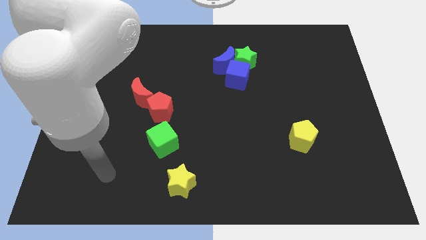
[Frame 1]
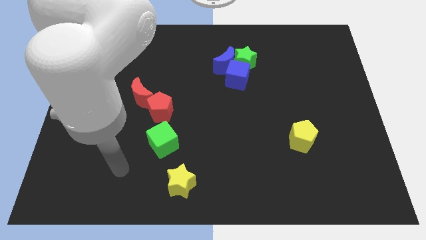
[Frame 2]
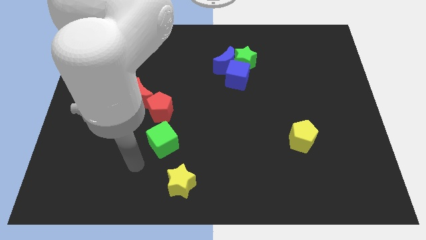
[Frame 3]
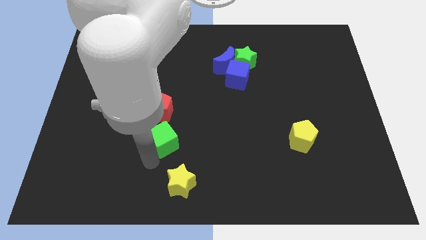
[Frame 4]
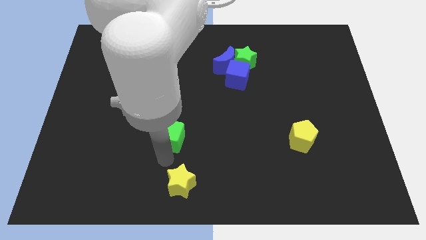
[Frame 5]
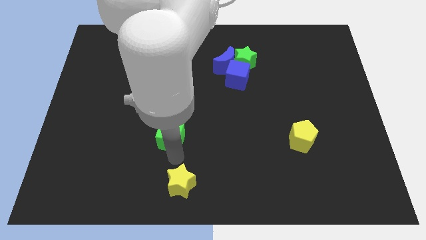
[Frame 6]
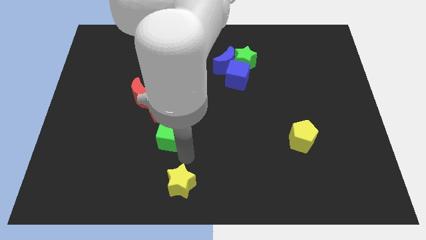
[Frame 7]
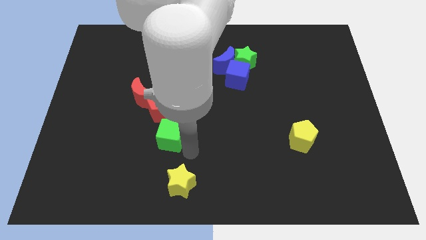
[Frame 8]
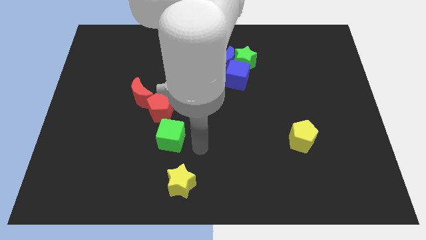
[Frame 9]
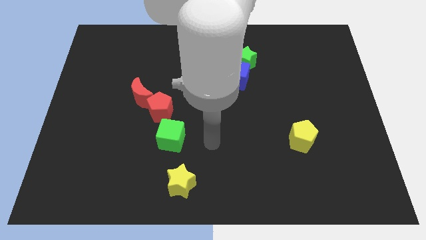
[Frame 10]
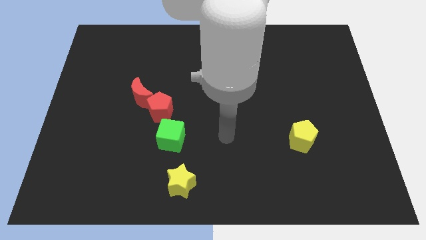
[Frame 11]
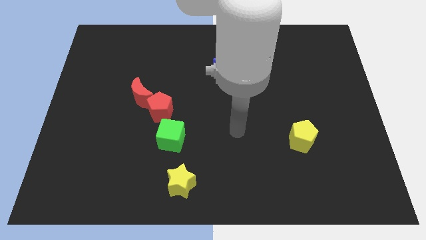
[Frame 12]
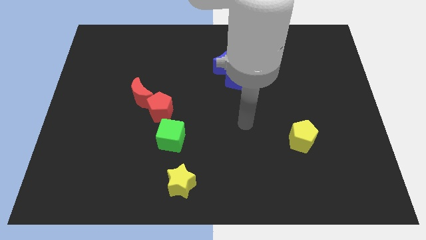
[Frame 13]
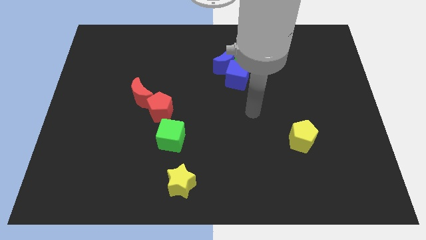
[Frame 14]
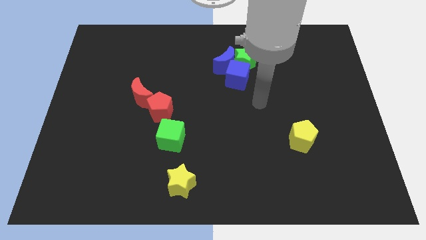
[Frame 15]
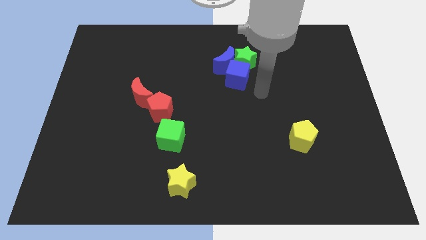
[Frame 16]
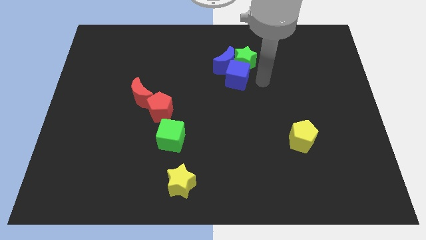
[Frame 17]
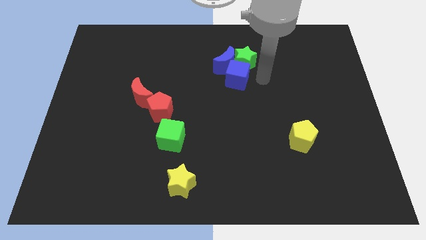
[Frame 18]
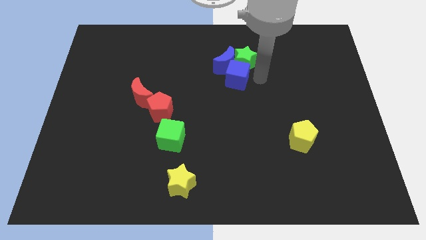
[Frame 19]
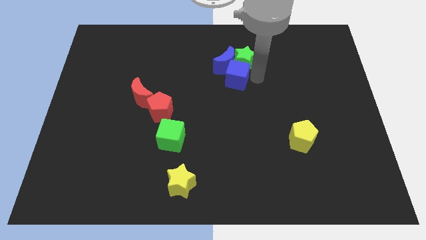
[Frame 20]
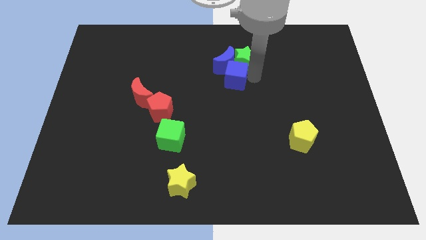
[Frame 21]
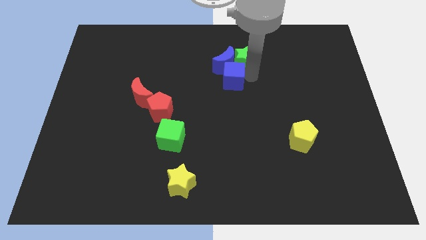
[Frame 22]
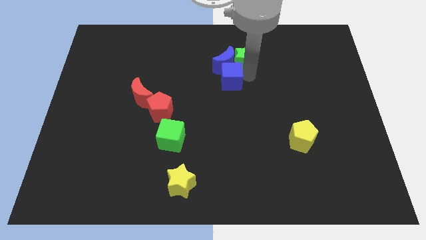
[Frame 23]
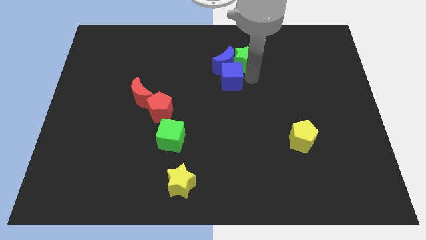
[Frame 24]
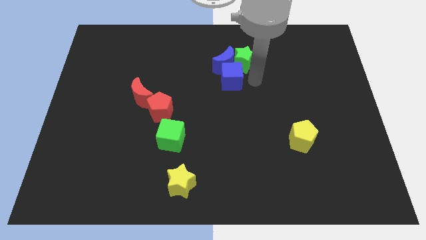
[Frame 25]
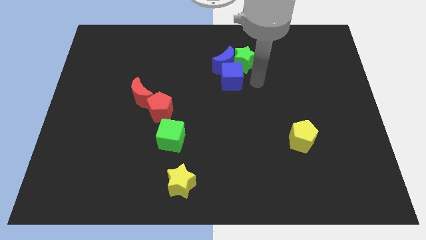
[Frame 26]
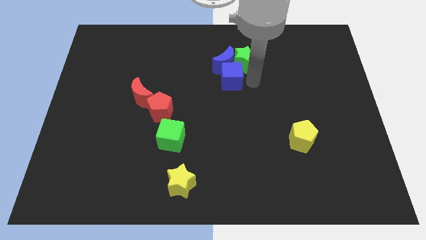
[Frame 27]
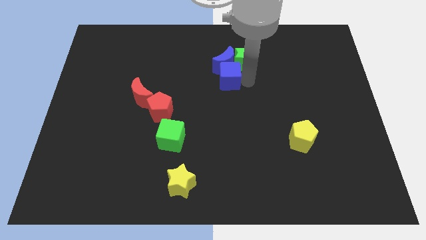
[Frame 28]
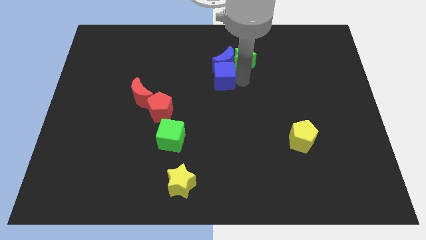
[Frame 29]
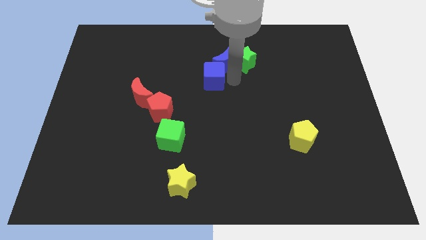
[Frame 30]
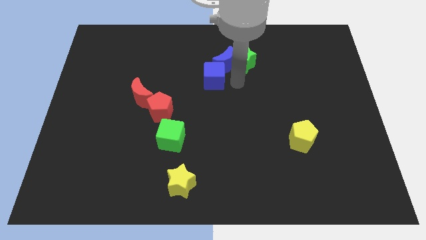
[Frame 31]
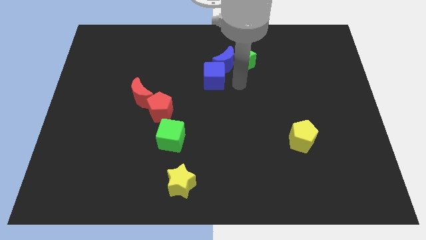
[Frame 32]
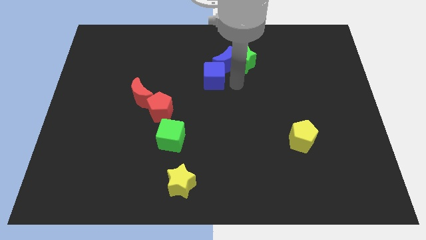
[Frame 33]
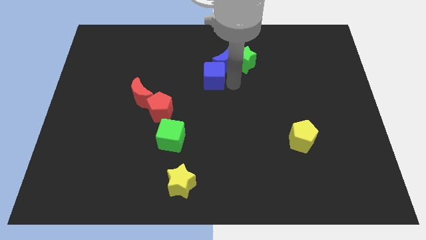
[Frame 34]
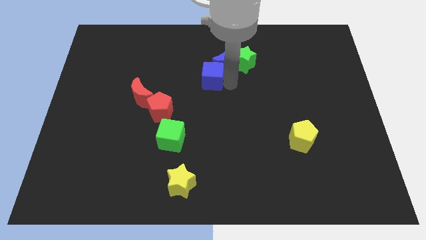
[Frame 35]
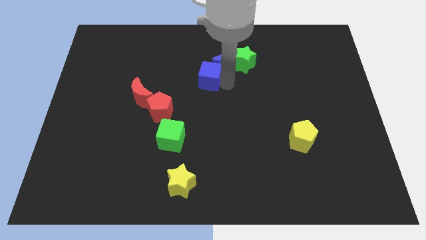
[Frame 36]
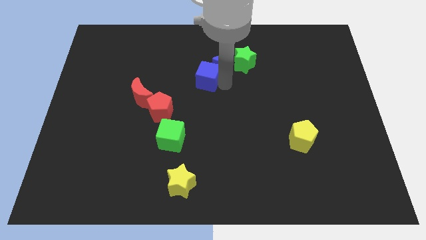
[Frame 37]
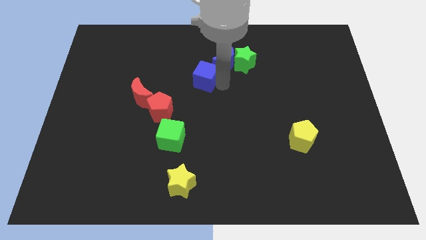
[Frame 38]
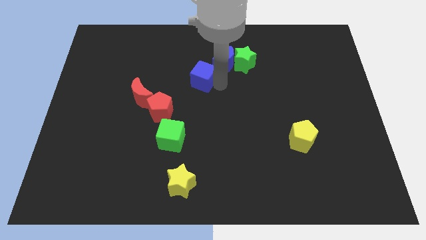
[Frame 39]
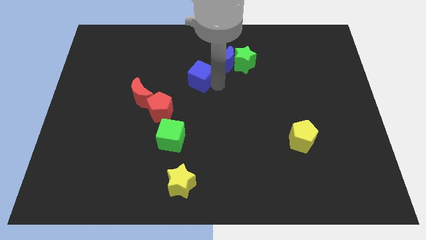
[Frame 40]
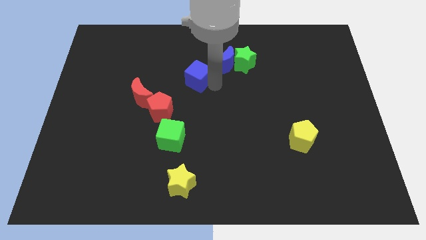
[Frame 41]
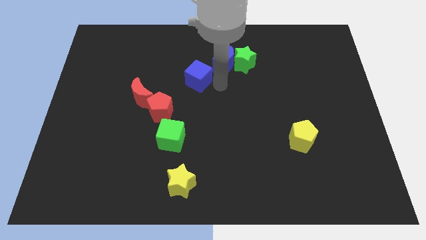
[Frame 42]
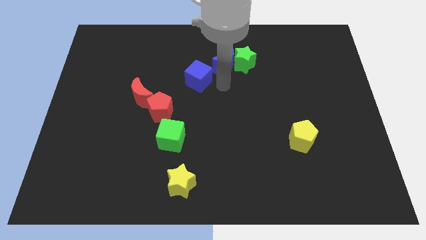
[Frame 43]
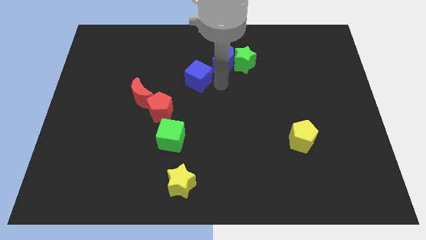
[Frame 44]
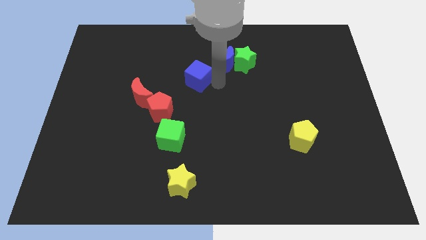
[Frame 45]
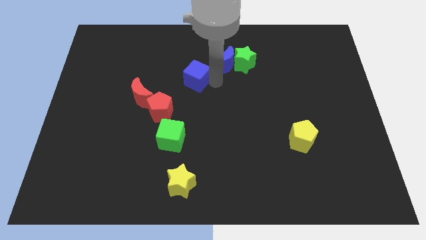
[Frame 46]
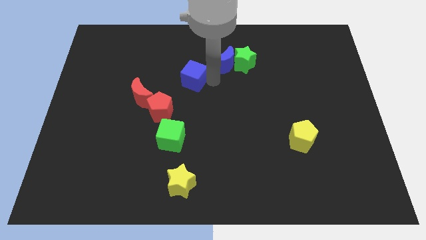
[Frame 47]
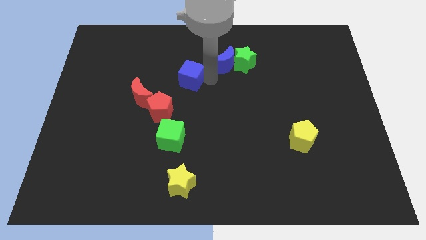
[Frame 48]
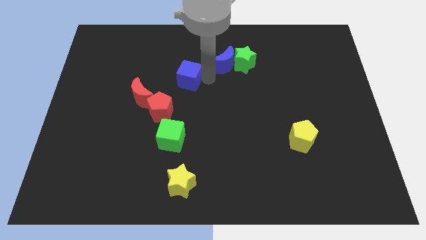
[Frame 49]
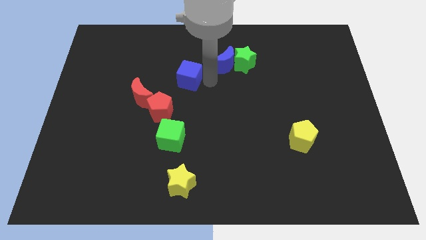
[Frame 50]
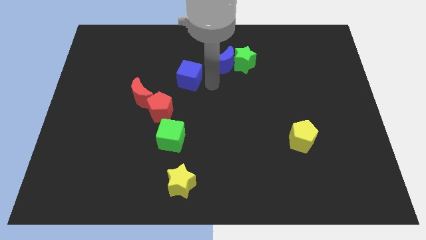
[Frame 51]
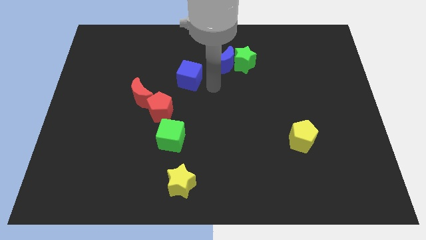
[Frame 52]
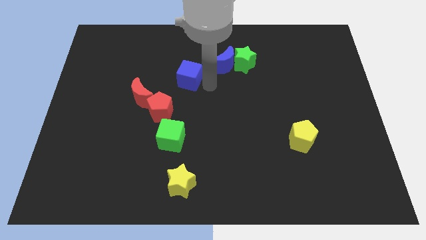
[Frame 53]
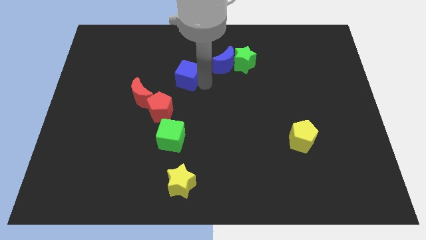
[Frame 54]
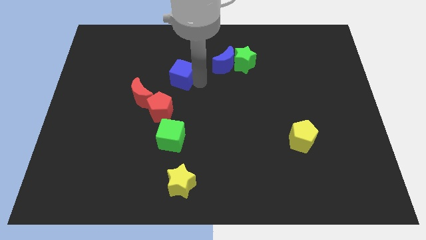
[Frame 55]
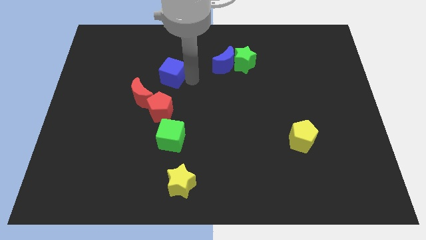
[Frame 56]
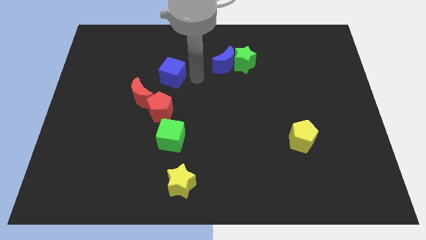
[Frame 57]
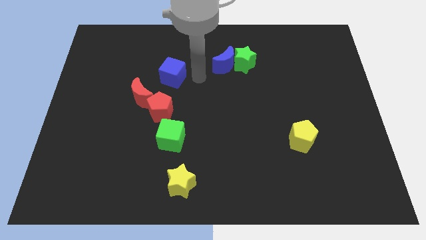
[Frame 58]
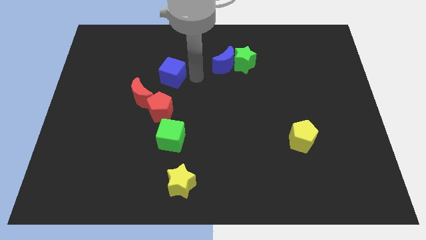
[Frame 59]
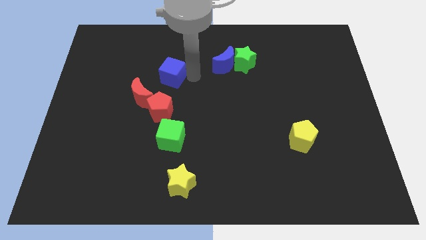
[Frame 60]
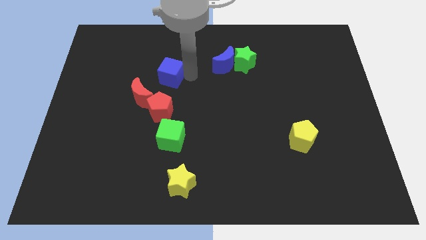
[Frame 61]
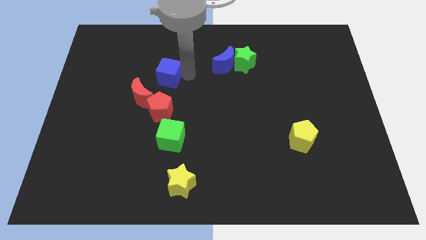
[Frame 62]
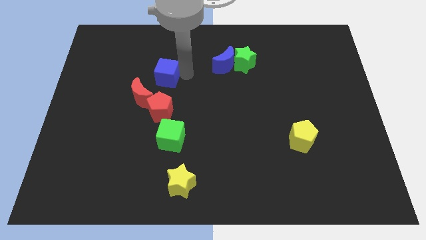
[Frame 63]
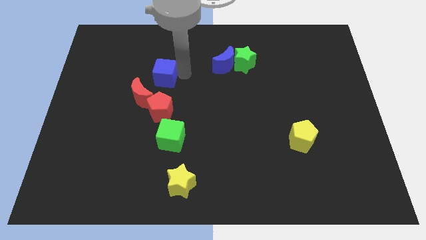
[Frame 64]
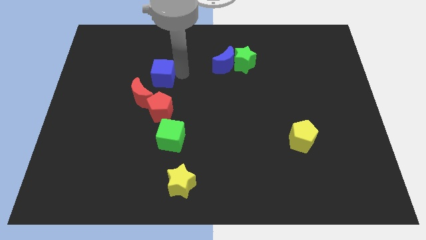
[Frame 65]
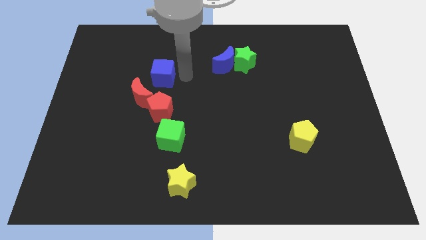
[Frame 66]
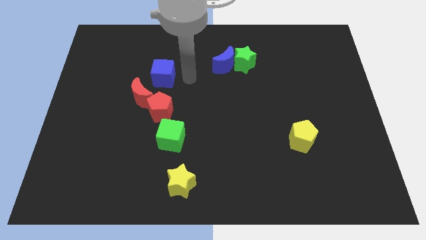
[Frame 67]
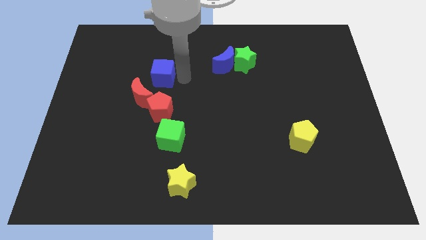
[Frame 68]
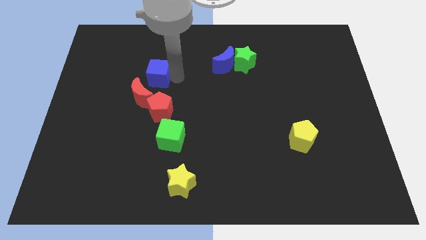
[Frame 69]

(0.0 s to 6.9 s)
push the blue cube to the left

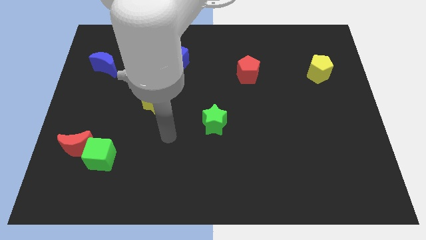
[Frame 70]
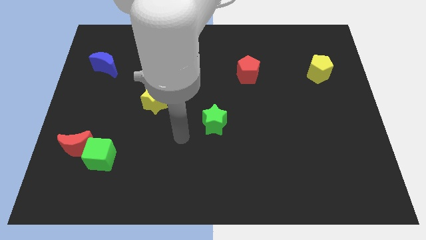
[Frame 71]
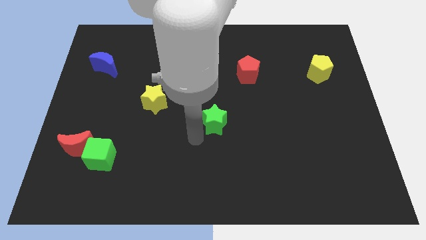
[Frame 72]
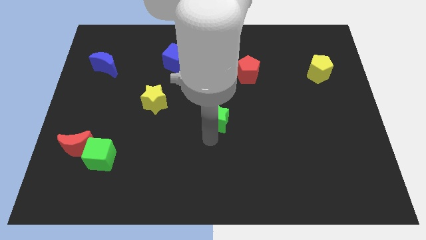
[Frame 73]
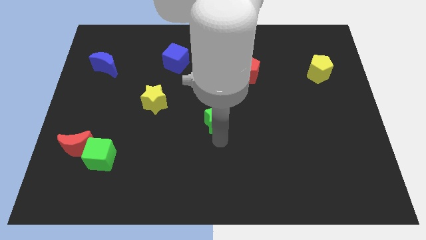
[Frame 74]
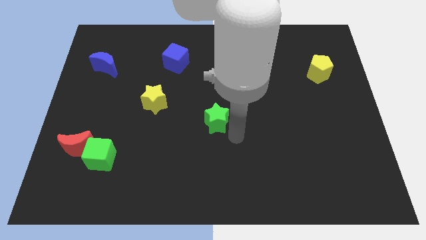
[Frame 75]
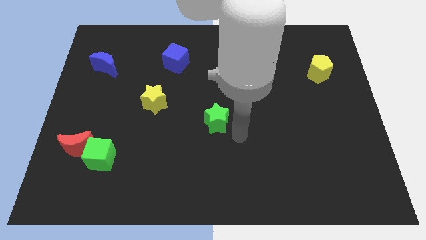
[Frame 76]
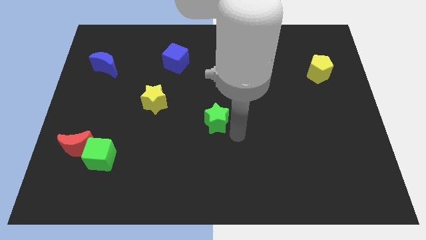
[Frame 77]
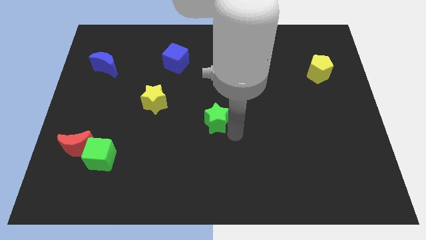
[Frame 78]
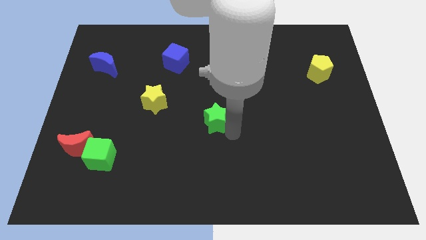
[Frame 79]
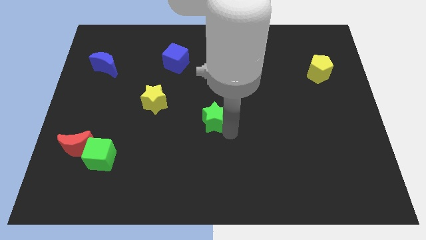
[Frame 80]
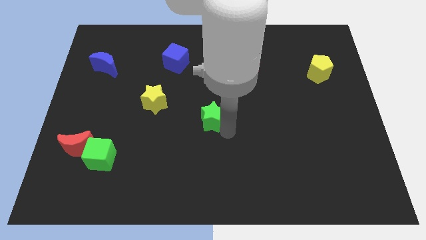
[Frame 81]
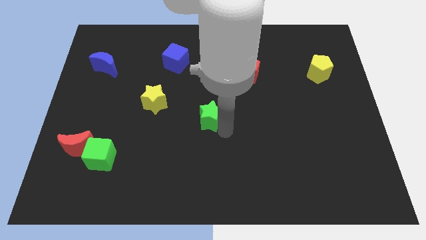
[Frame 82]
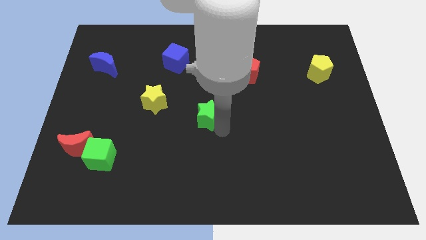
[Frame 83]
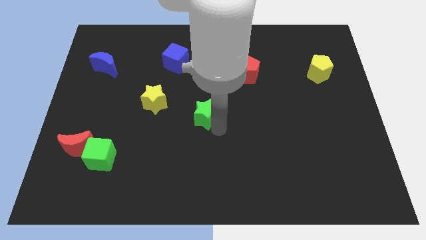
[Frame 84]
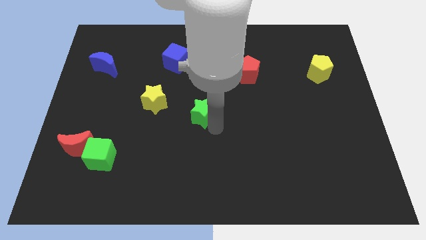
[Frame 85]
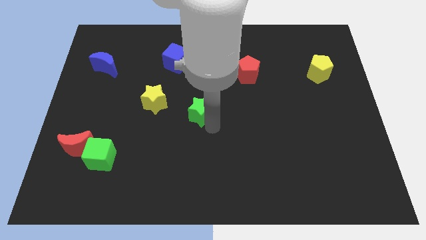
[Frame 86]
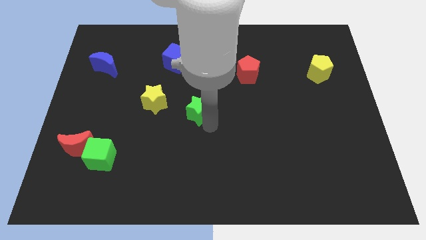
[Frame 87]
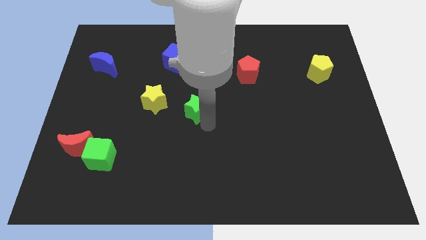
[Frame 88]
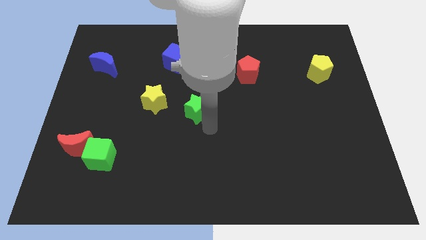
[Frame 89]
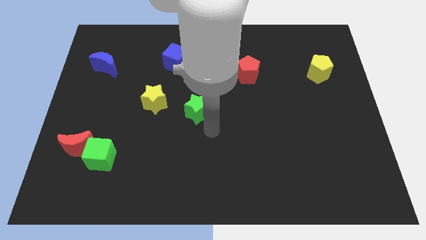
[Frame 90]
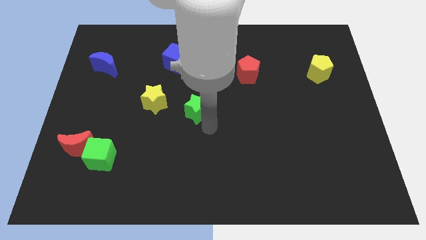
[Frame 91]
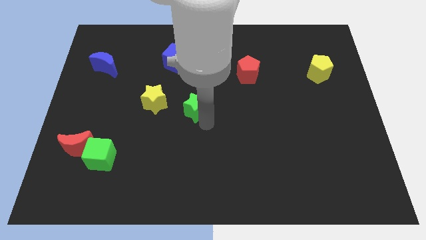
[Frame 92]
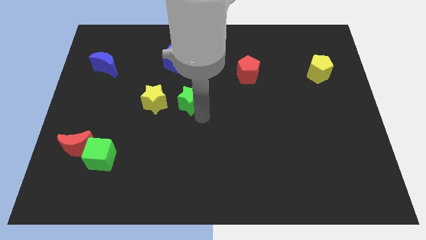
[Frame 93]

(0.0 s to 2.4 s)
push the green star a little up and then to the left
